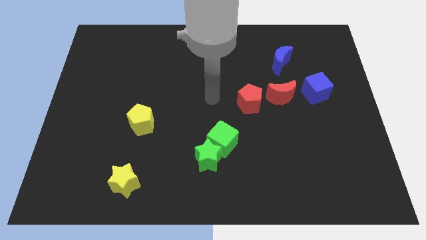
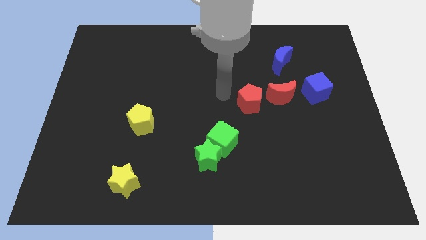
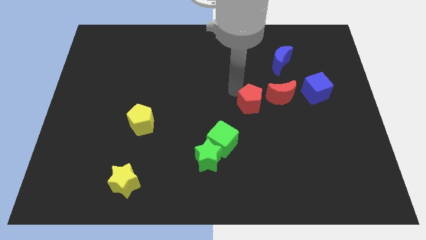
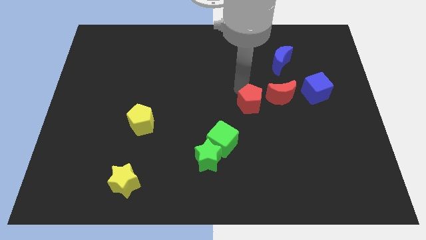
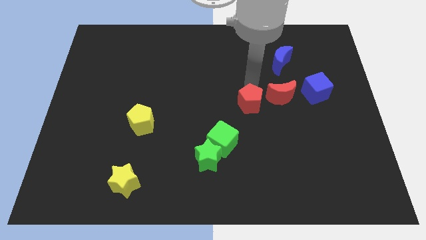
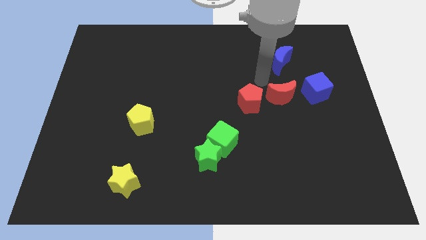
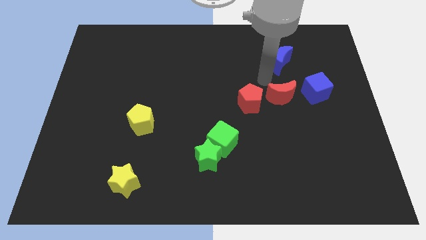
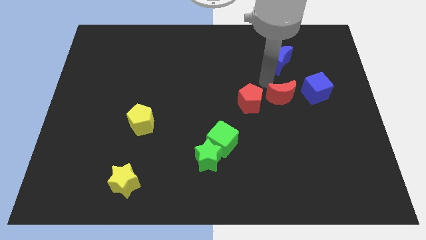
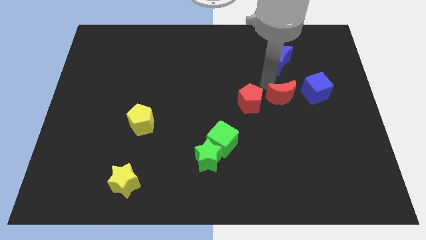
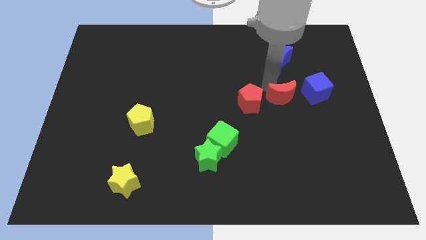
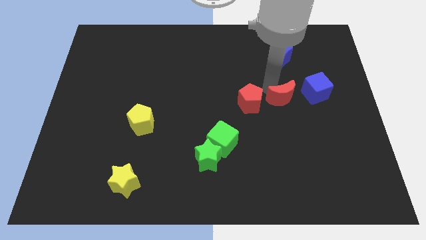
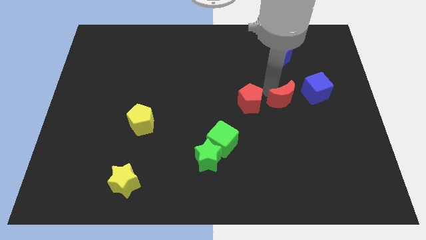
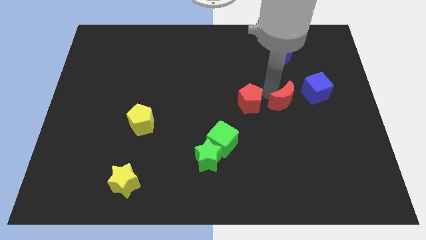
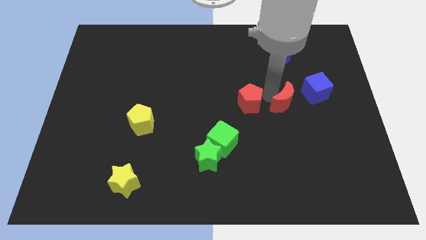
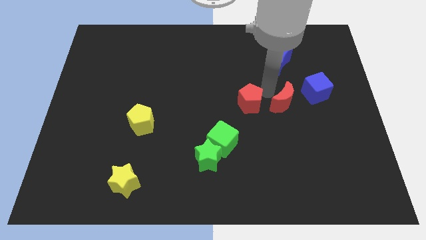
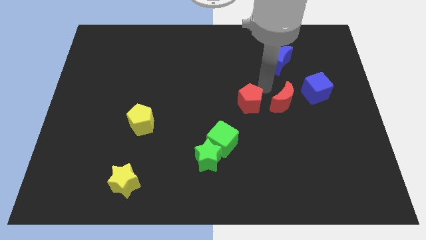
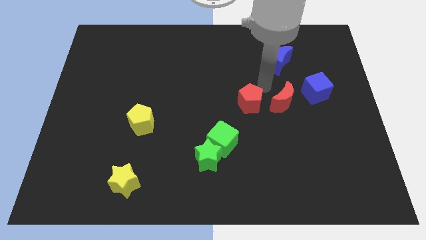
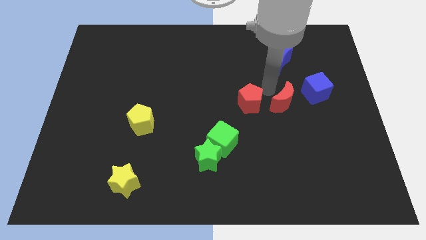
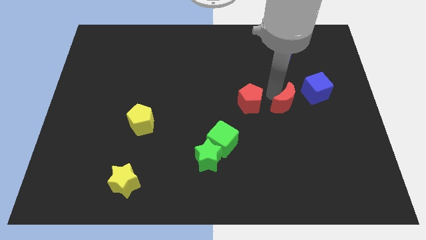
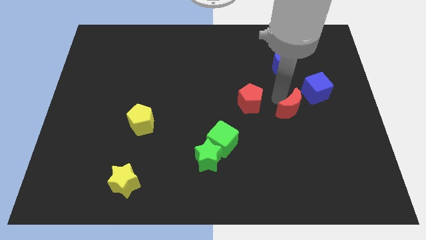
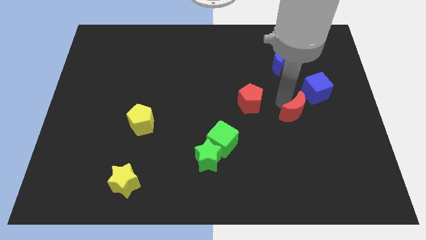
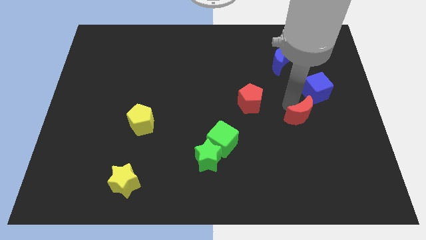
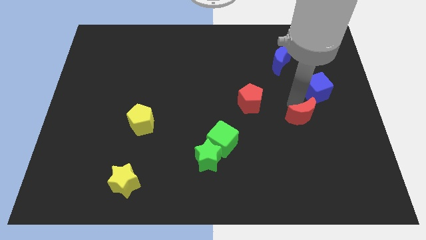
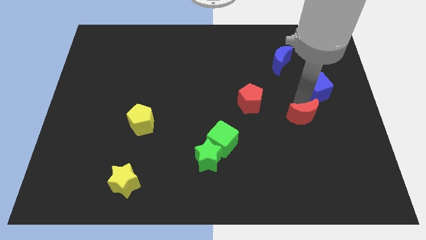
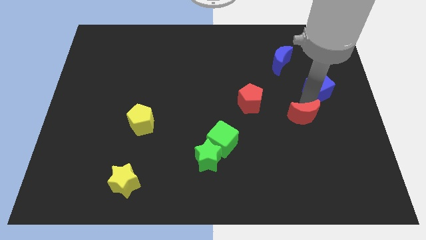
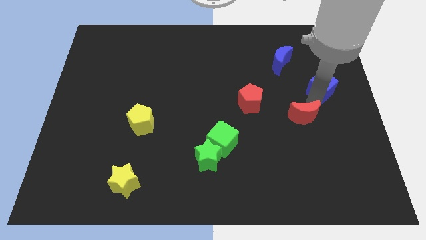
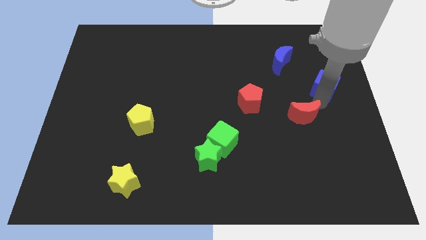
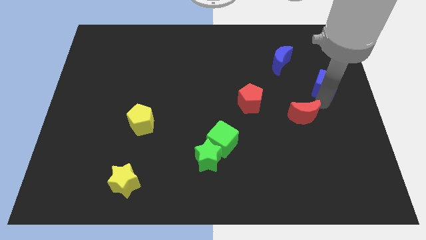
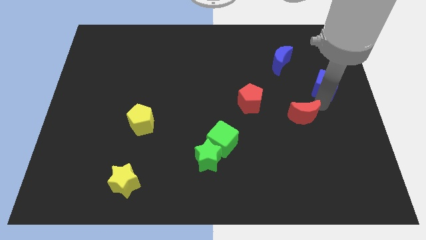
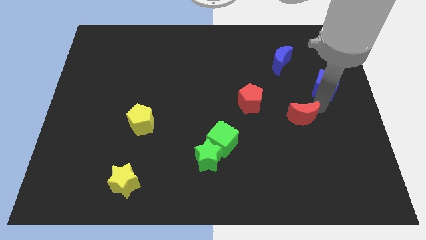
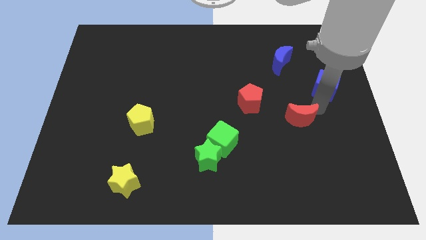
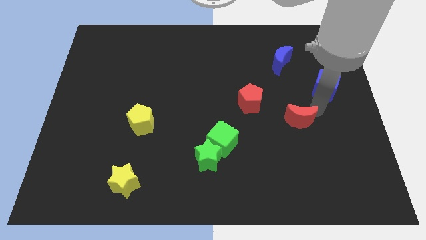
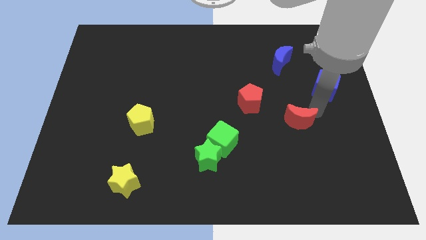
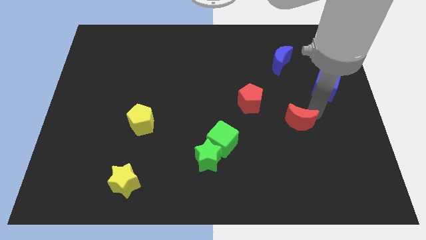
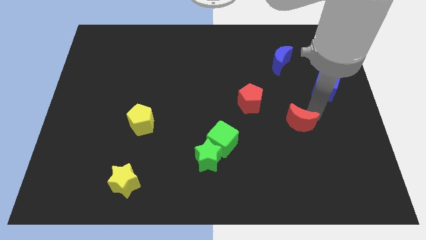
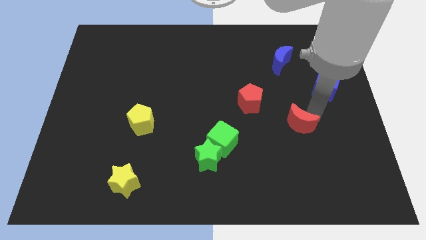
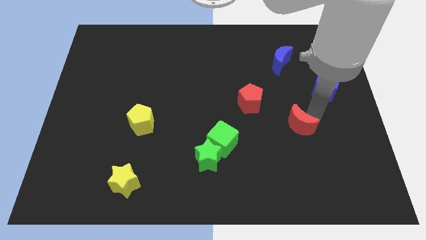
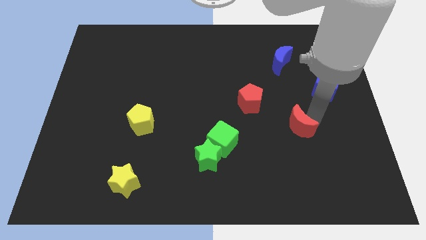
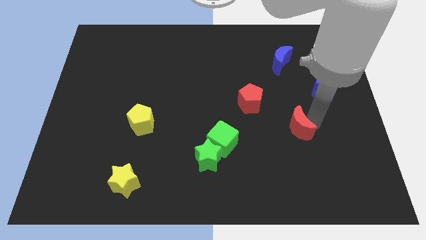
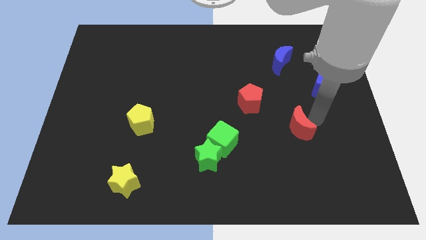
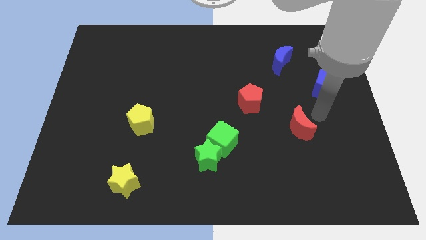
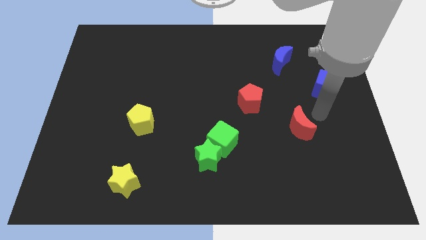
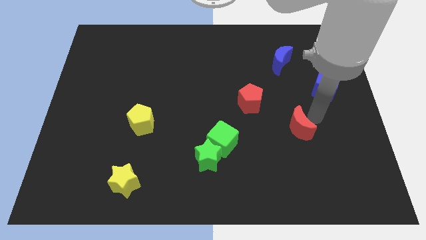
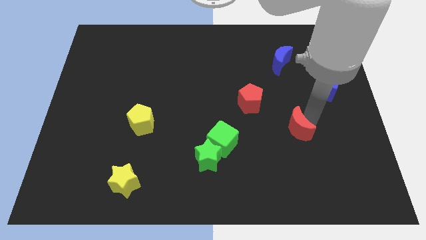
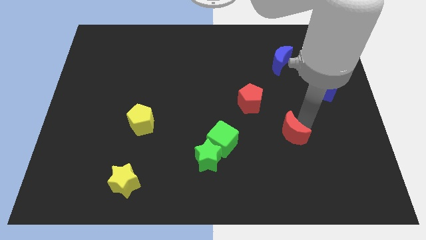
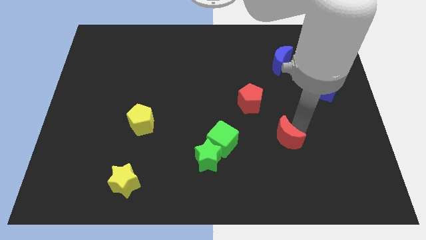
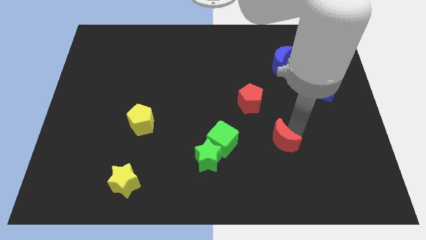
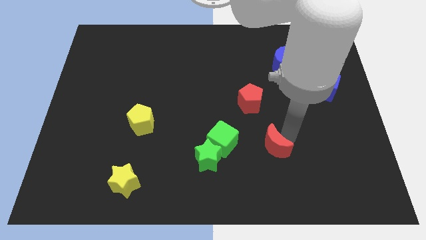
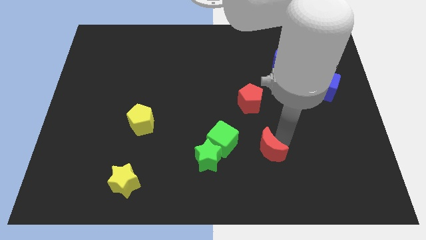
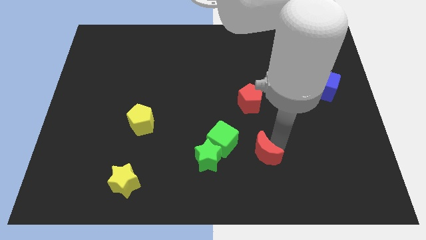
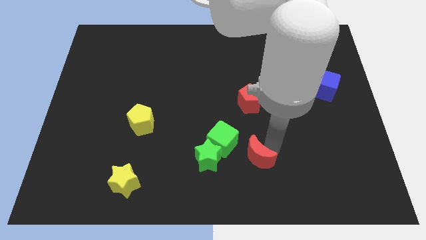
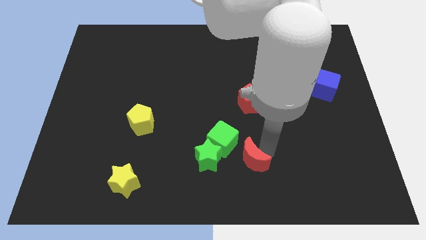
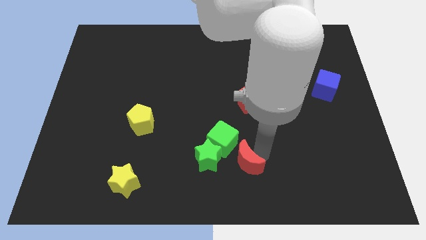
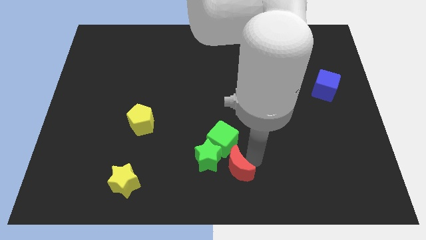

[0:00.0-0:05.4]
slide the red moon diagonally down and left

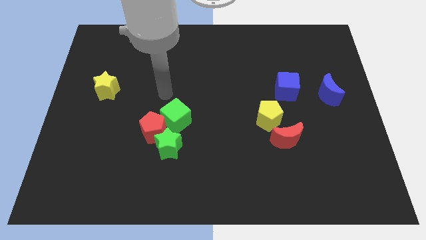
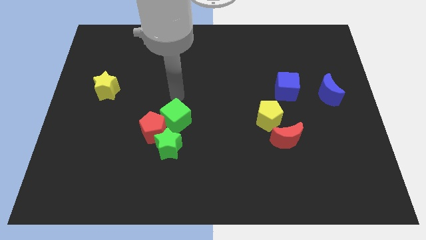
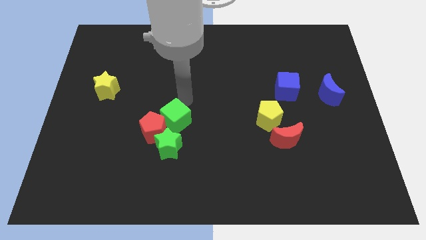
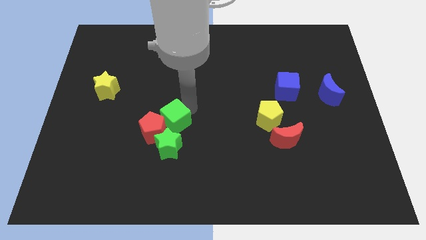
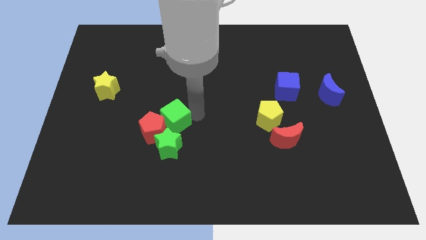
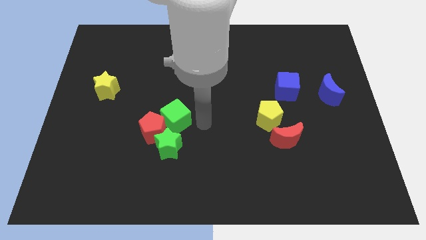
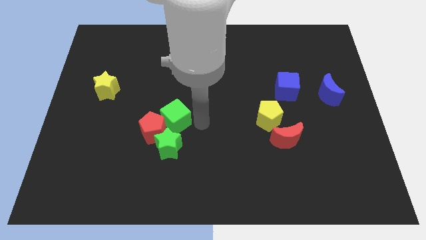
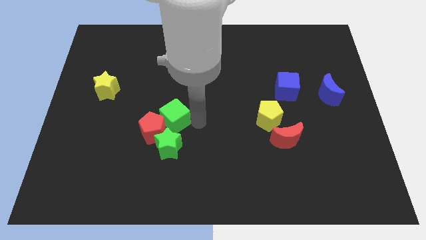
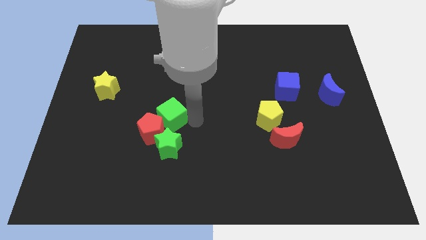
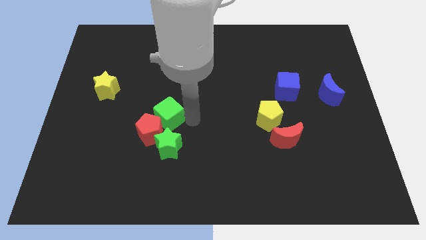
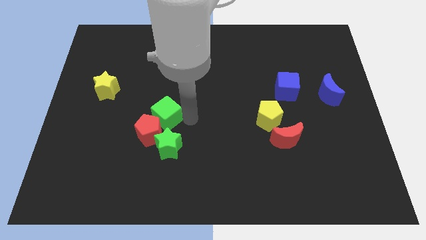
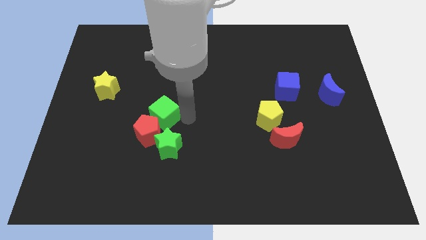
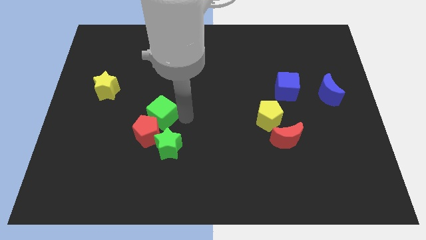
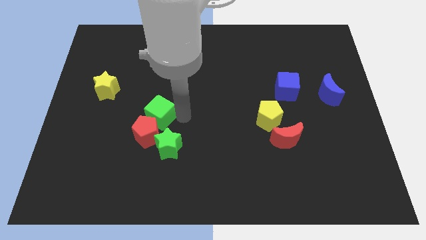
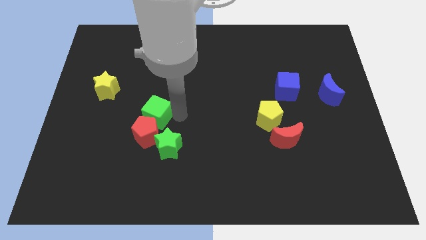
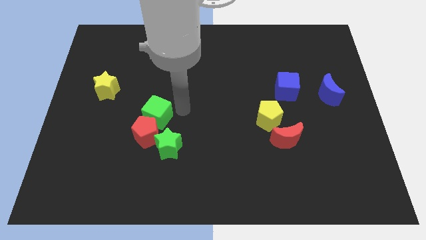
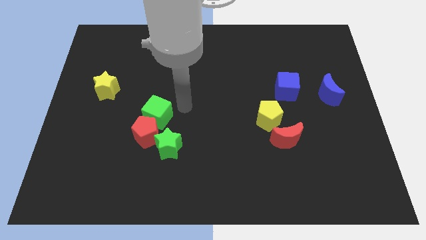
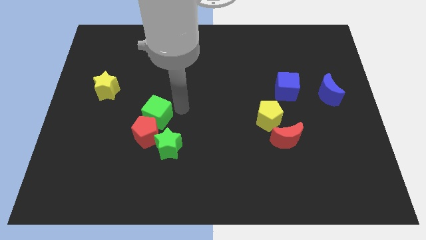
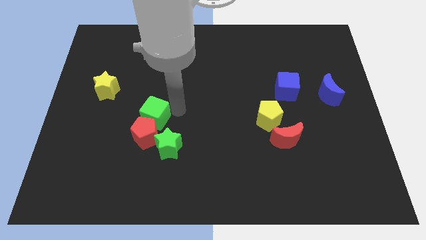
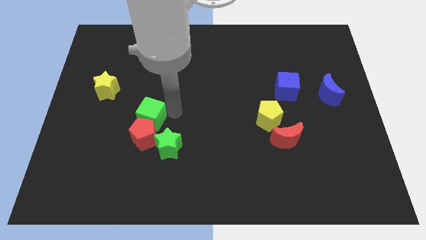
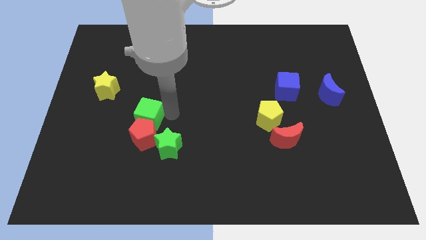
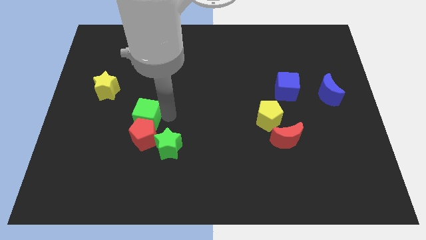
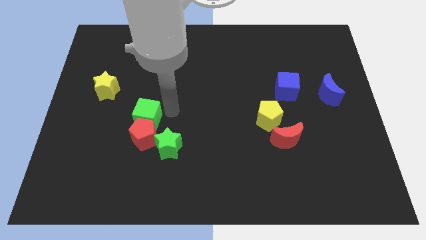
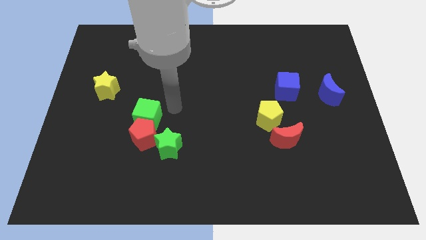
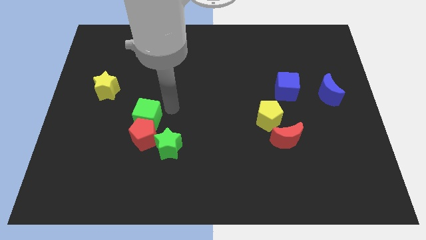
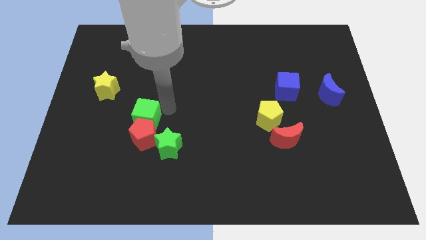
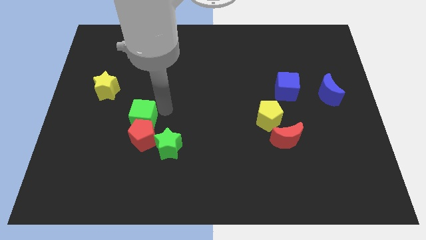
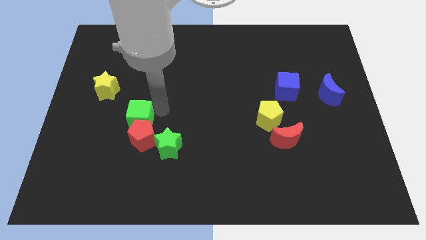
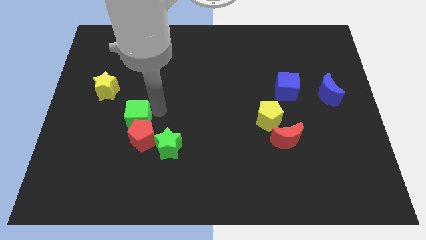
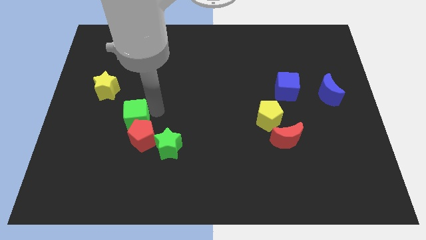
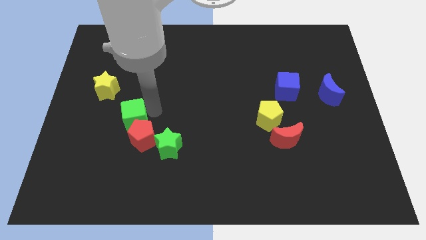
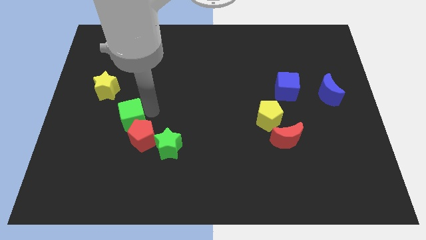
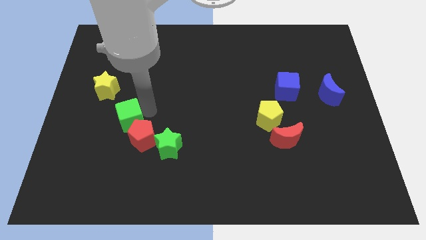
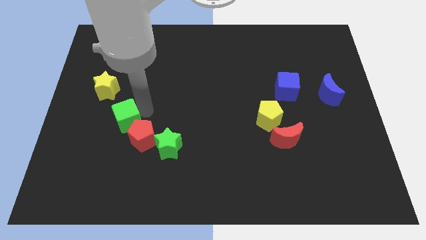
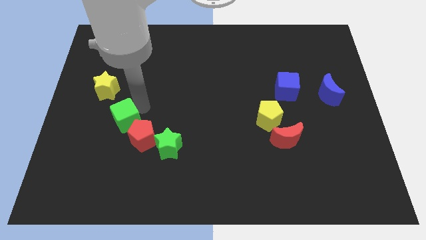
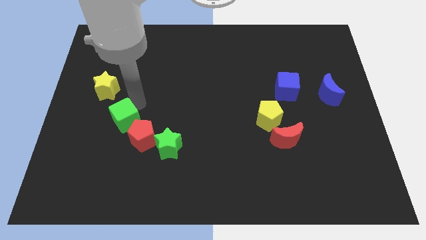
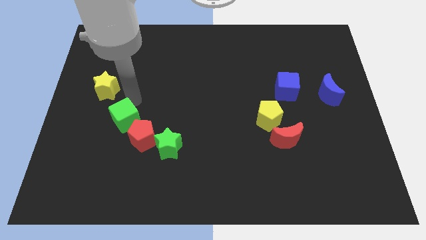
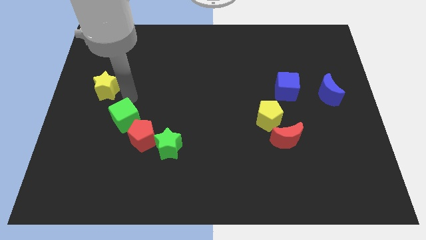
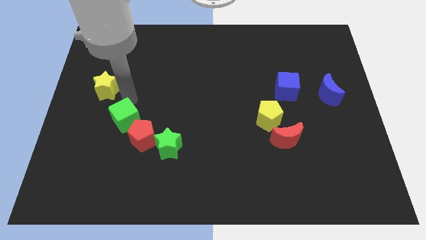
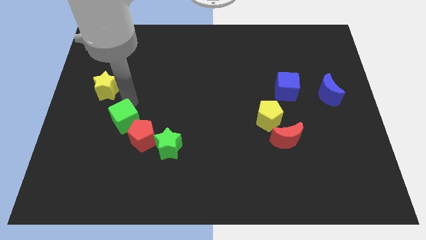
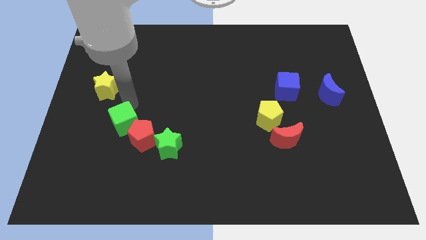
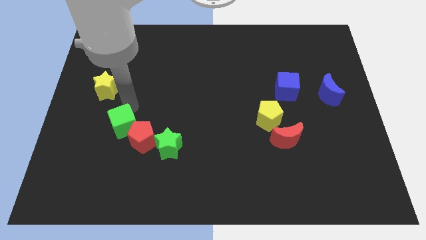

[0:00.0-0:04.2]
slightly slide the green cube down and then left
